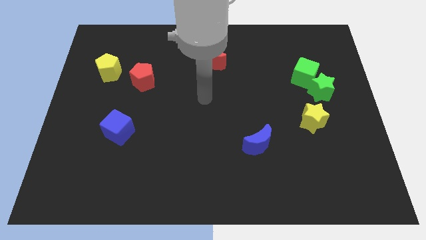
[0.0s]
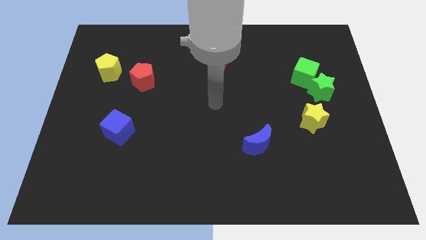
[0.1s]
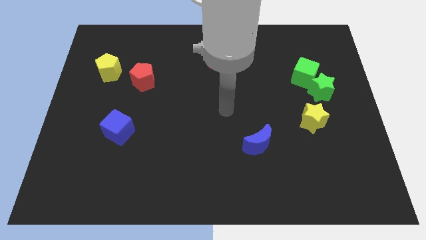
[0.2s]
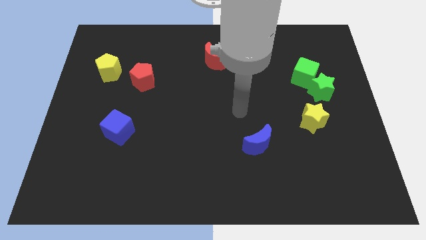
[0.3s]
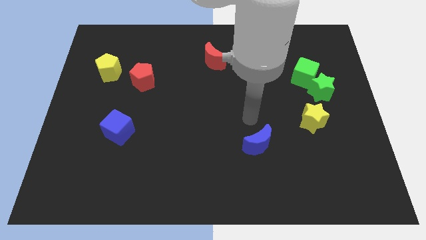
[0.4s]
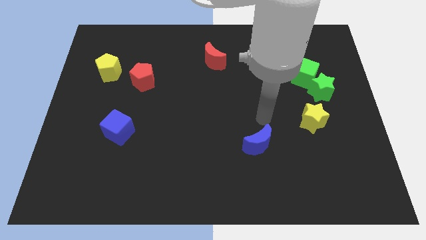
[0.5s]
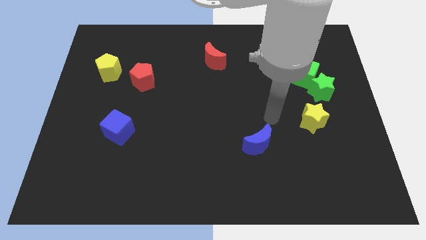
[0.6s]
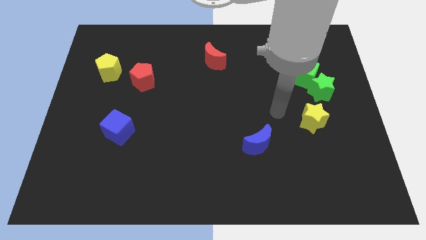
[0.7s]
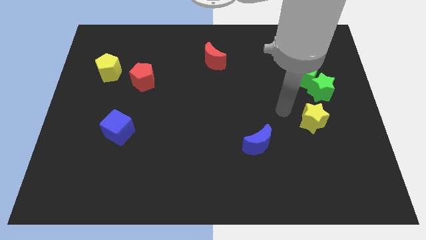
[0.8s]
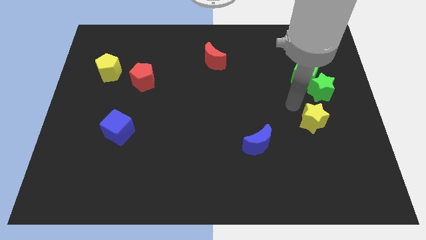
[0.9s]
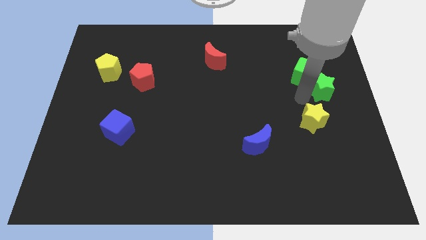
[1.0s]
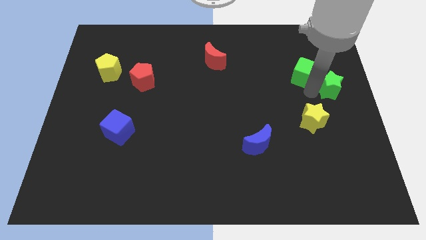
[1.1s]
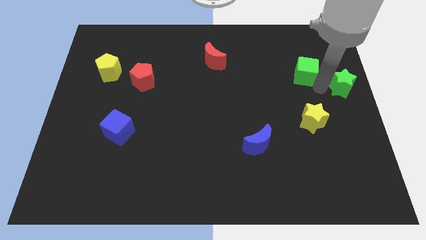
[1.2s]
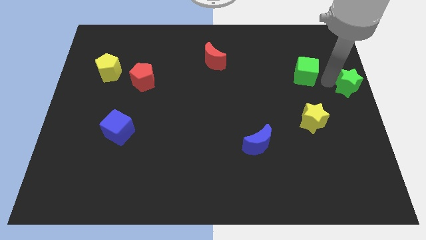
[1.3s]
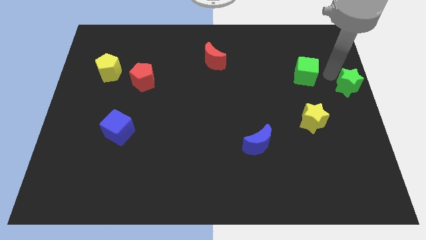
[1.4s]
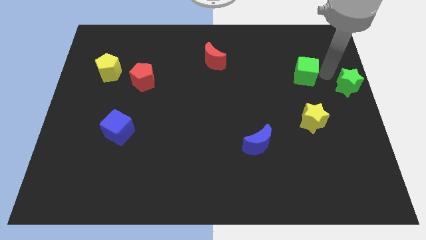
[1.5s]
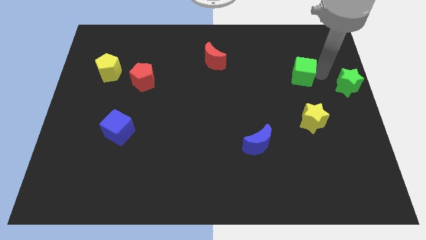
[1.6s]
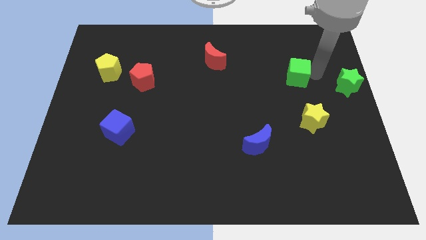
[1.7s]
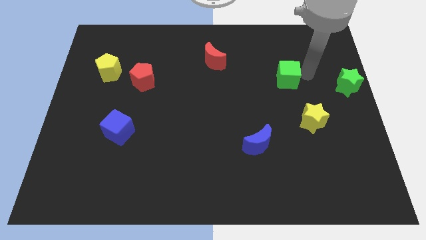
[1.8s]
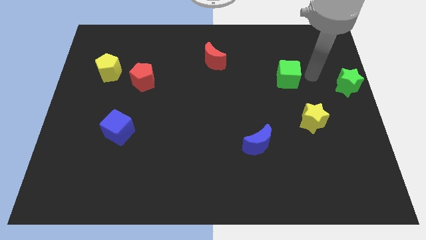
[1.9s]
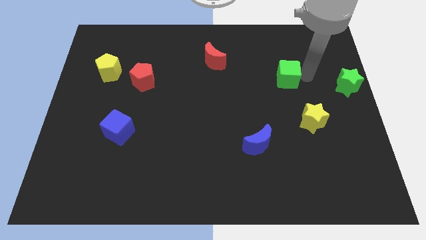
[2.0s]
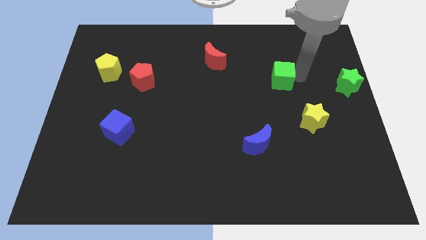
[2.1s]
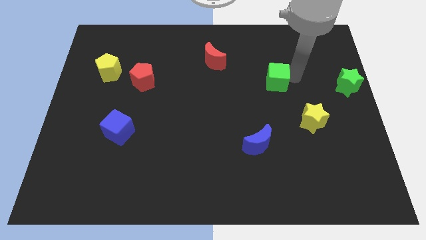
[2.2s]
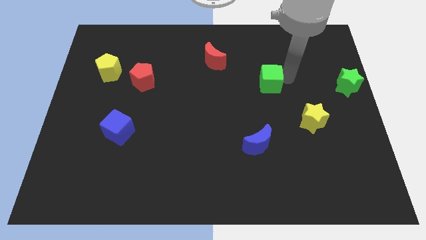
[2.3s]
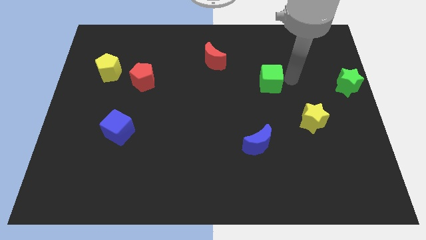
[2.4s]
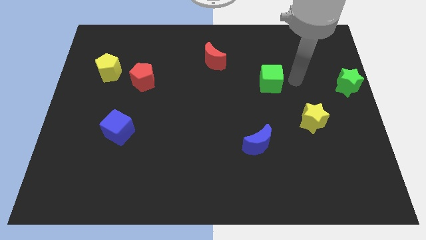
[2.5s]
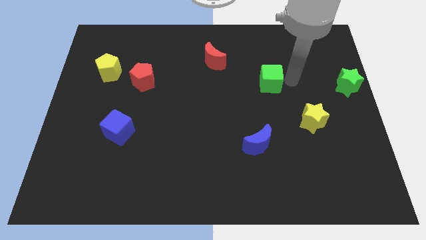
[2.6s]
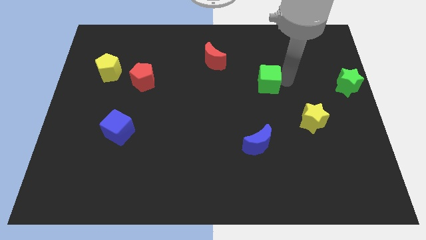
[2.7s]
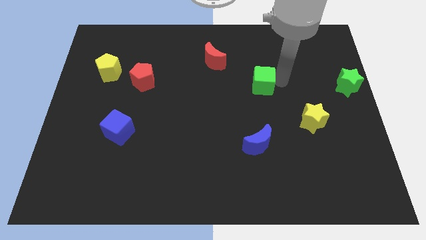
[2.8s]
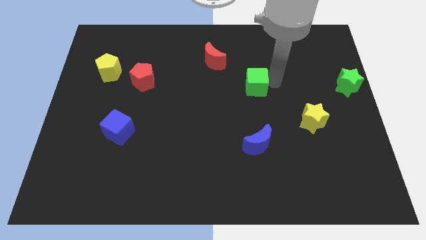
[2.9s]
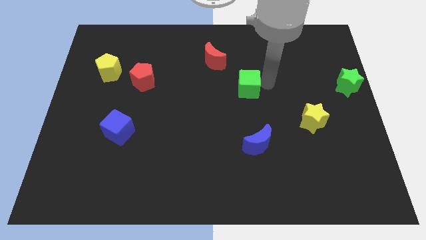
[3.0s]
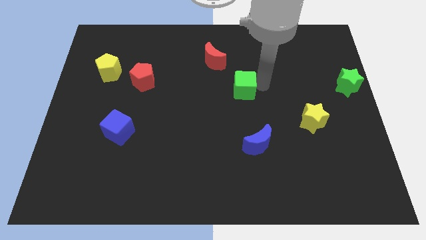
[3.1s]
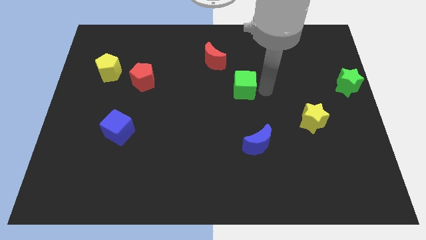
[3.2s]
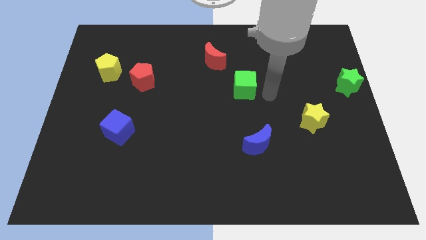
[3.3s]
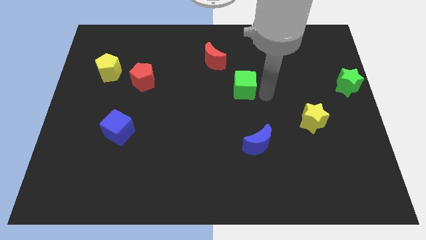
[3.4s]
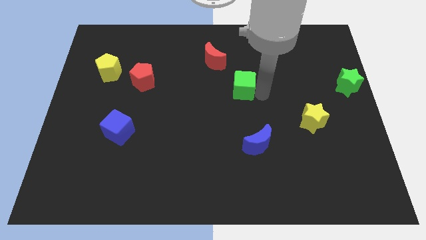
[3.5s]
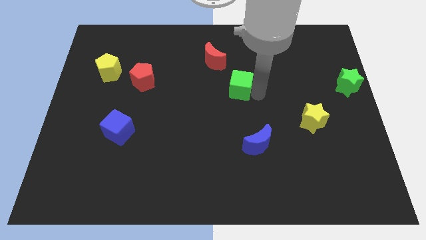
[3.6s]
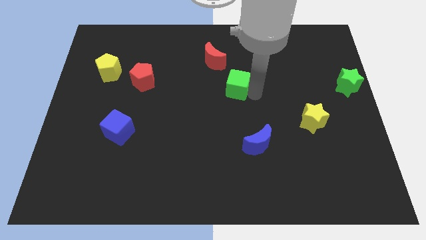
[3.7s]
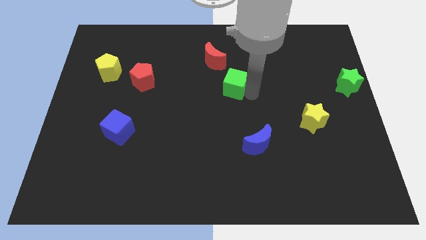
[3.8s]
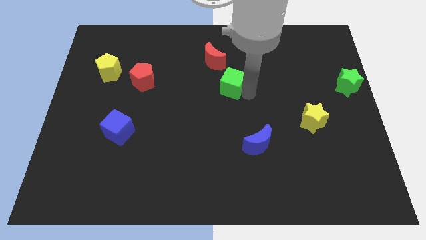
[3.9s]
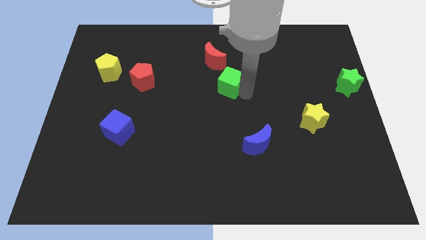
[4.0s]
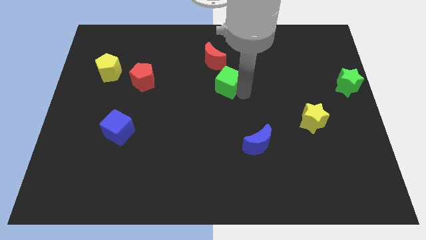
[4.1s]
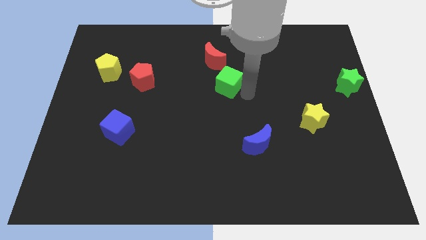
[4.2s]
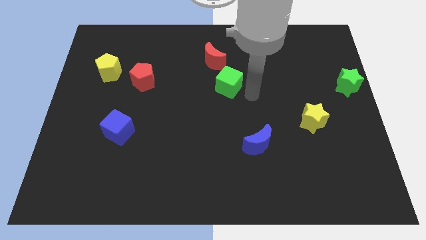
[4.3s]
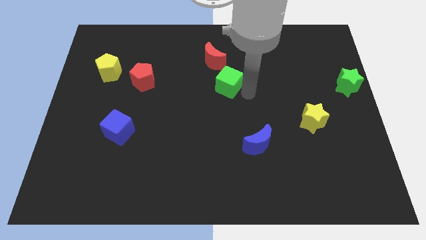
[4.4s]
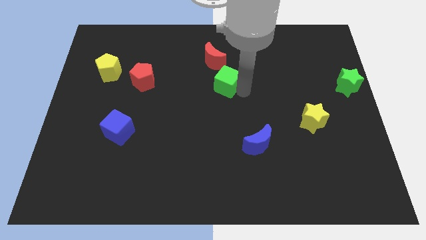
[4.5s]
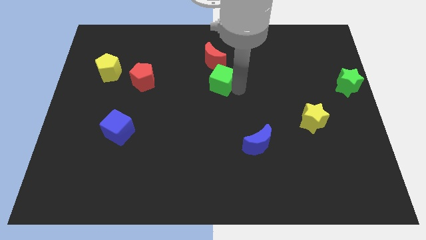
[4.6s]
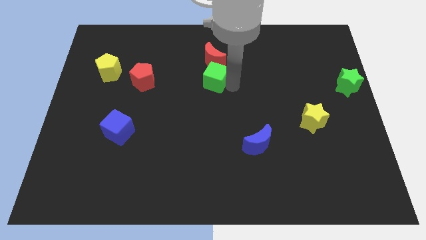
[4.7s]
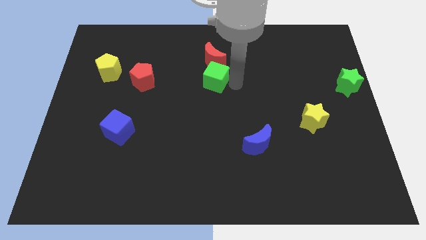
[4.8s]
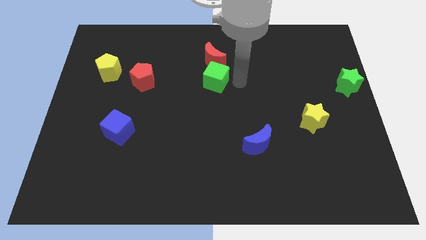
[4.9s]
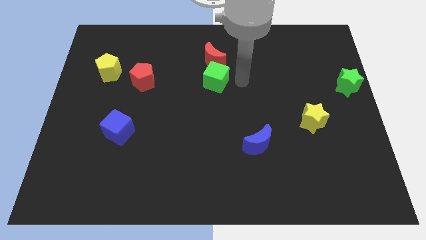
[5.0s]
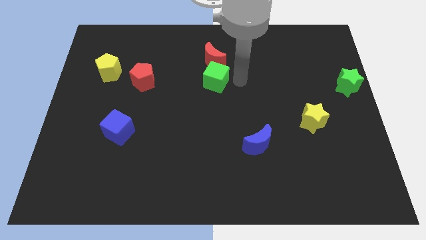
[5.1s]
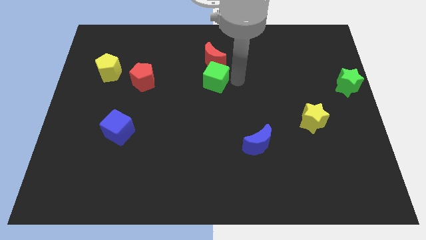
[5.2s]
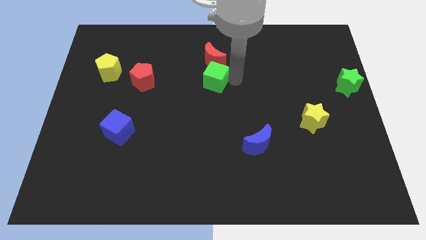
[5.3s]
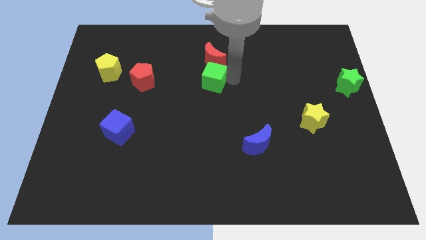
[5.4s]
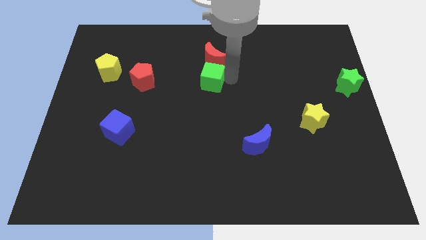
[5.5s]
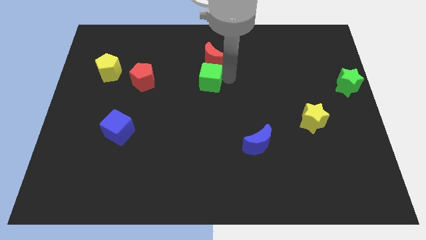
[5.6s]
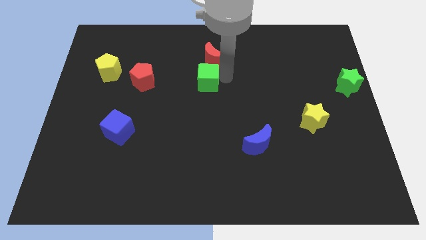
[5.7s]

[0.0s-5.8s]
push the green cube just right of the red pentagon

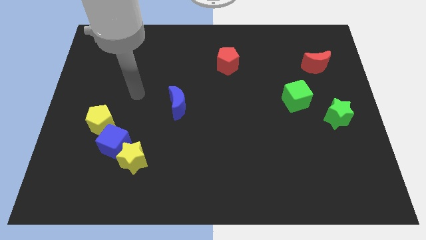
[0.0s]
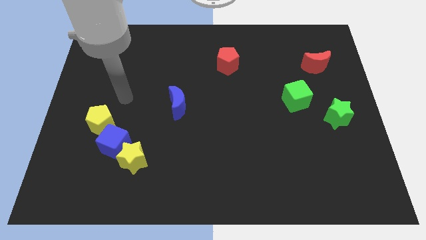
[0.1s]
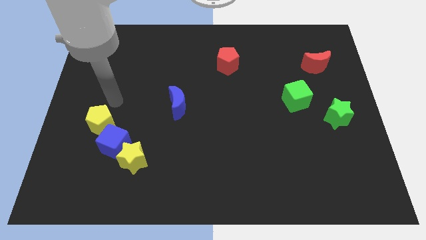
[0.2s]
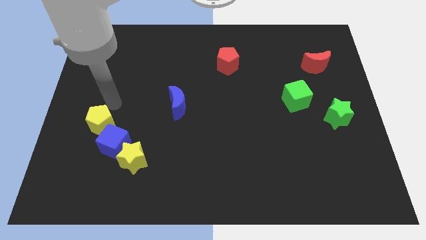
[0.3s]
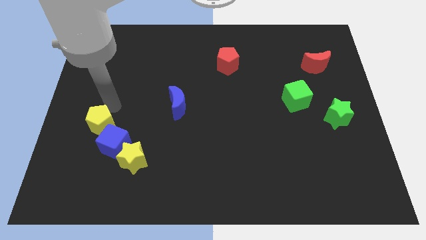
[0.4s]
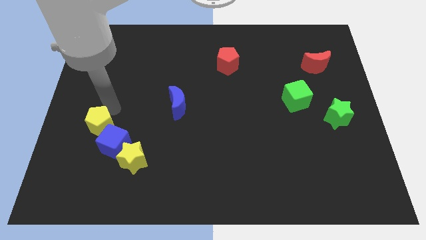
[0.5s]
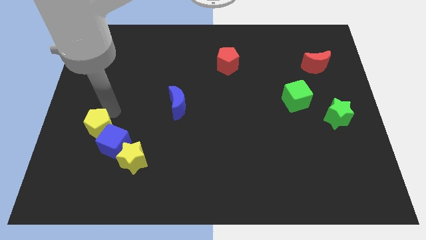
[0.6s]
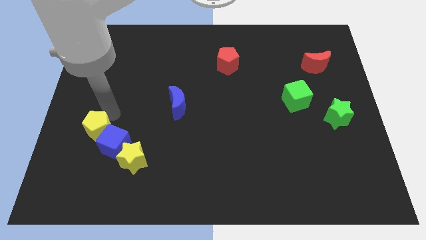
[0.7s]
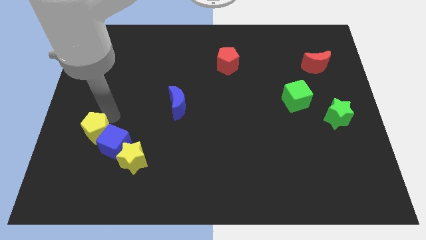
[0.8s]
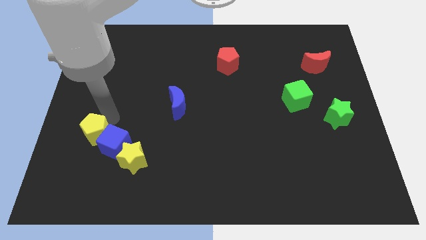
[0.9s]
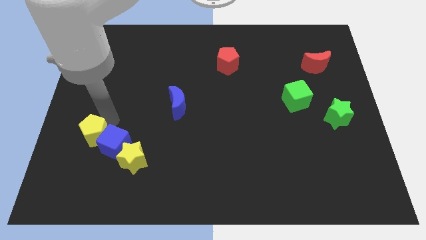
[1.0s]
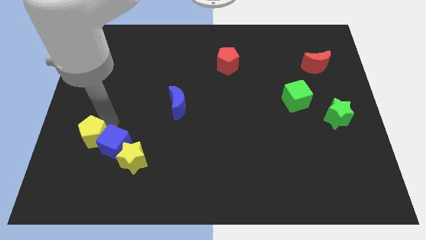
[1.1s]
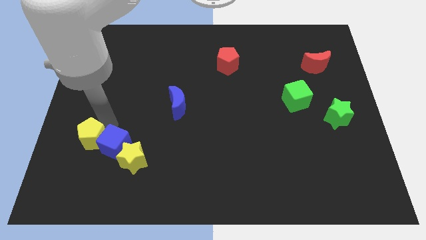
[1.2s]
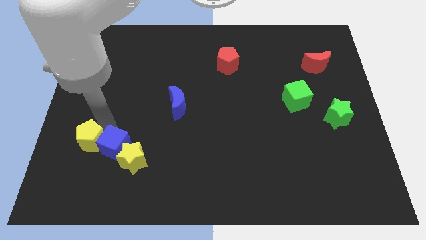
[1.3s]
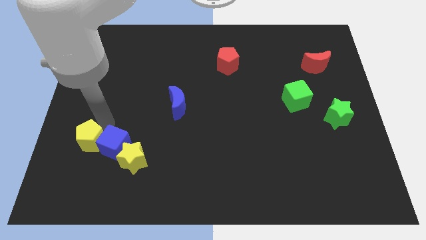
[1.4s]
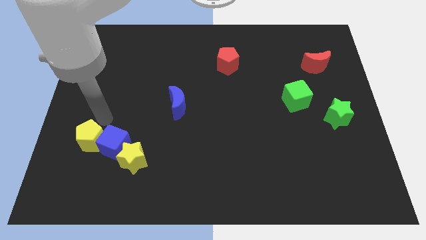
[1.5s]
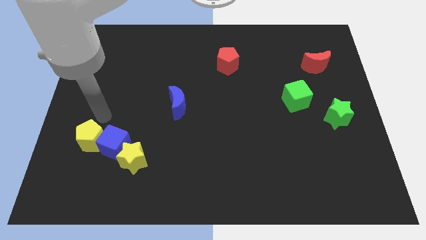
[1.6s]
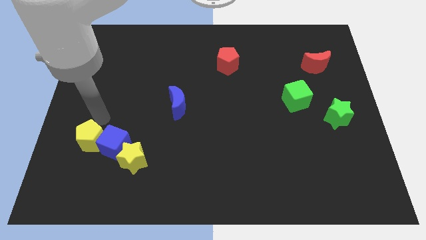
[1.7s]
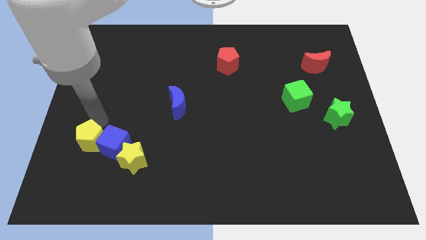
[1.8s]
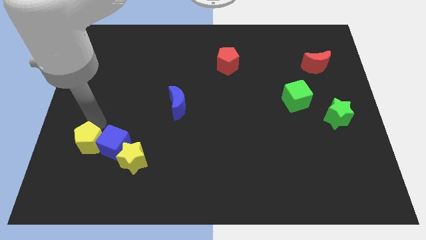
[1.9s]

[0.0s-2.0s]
move the yellow pentagon to the left of the yellow star
